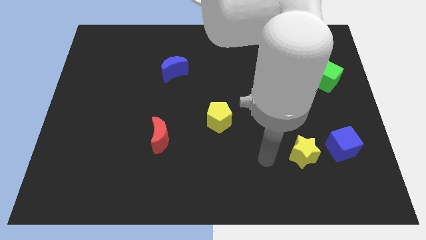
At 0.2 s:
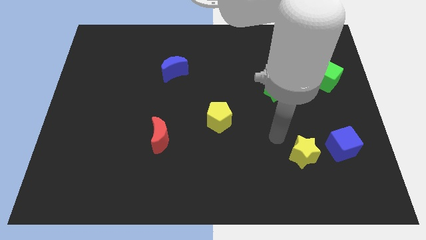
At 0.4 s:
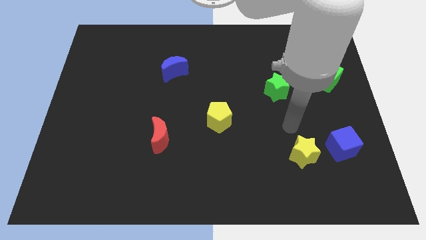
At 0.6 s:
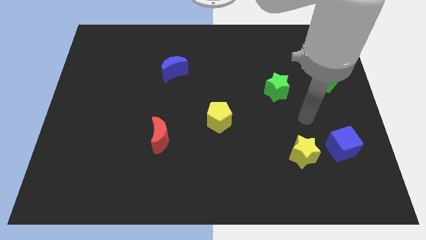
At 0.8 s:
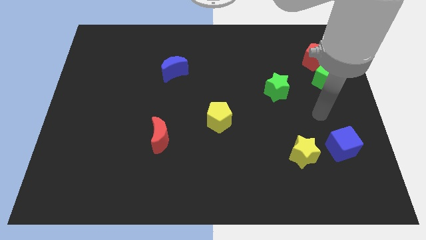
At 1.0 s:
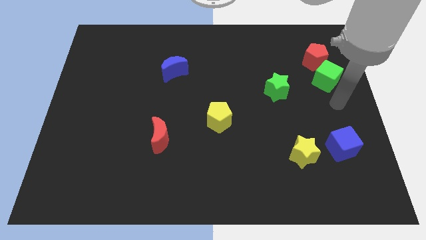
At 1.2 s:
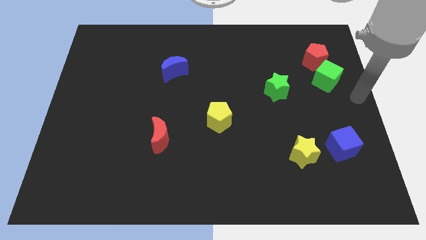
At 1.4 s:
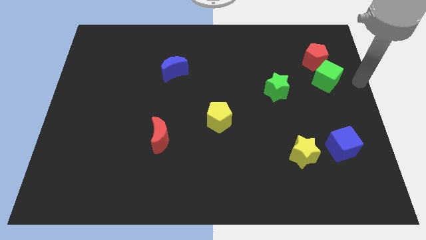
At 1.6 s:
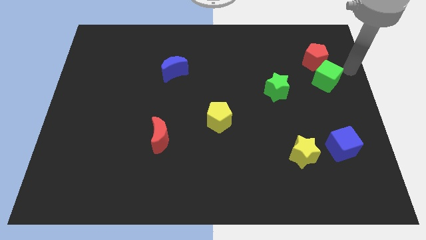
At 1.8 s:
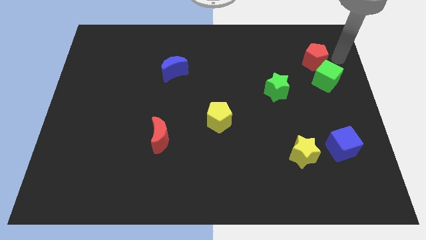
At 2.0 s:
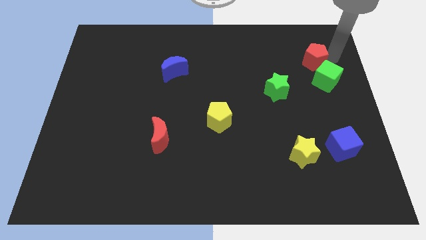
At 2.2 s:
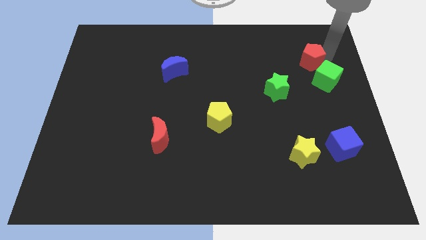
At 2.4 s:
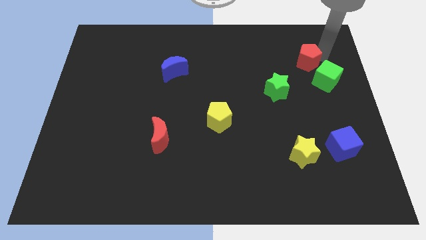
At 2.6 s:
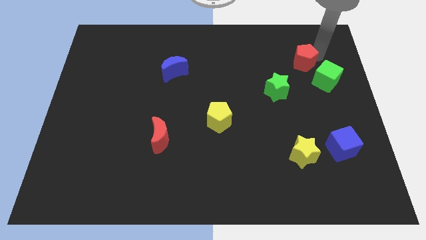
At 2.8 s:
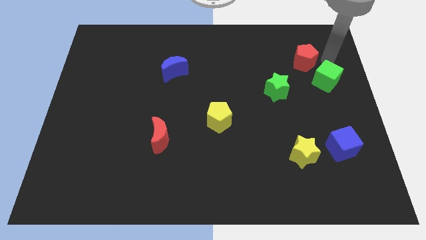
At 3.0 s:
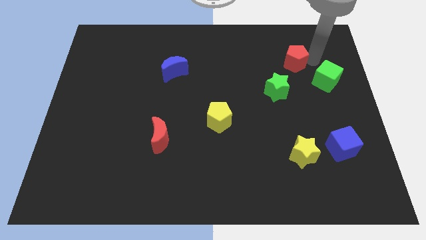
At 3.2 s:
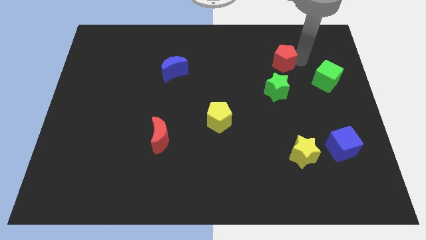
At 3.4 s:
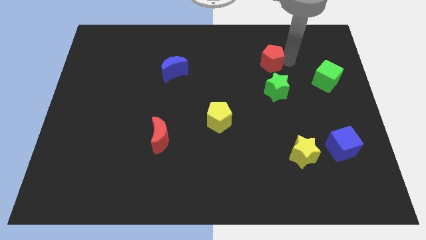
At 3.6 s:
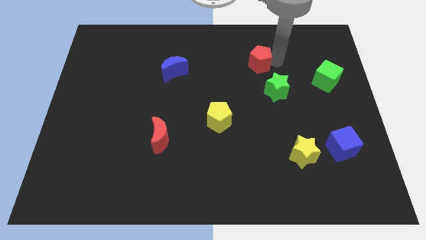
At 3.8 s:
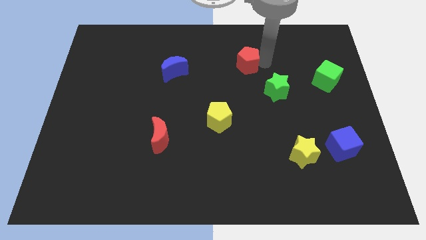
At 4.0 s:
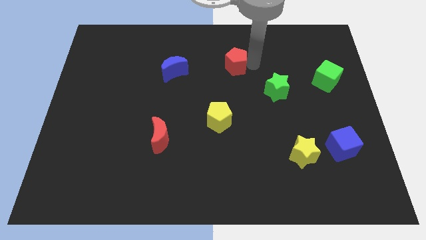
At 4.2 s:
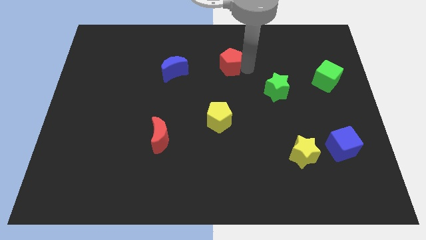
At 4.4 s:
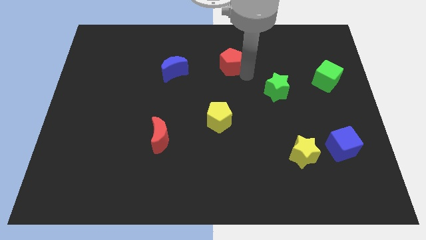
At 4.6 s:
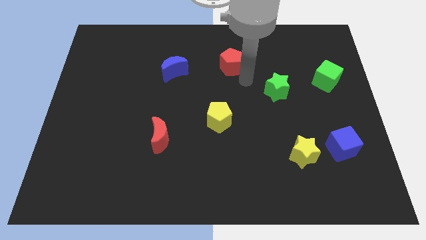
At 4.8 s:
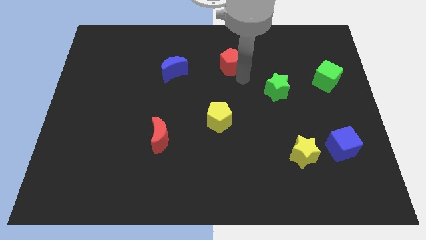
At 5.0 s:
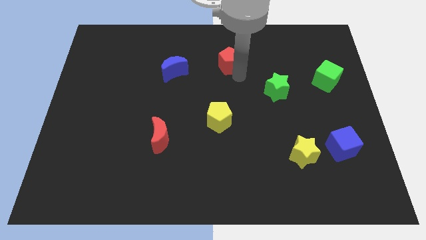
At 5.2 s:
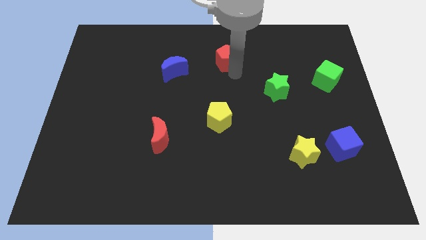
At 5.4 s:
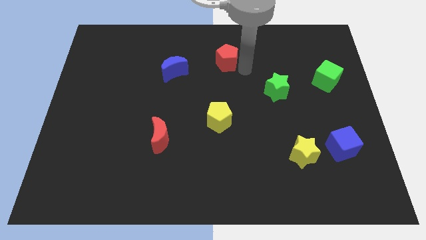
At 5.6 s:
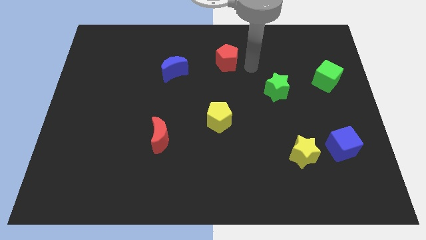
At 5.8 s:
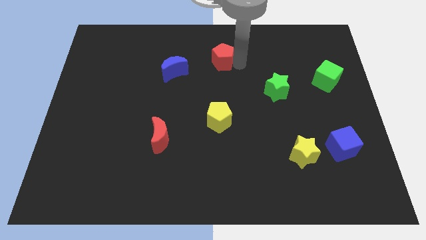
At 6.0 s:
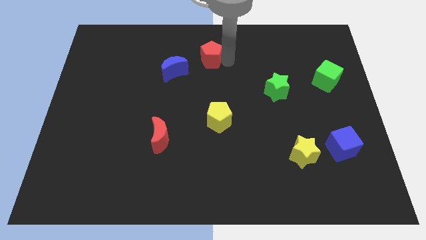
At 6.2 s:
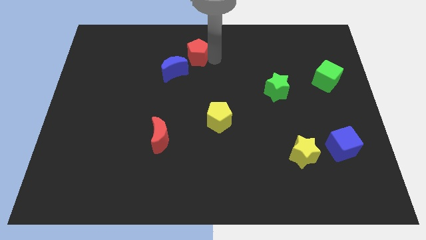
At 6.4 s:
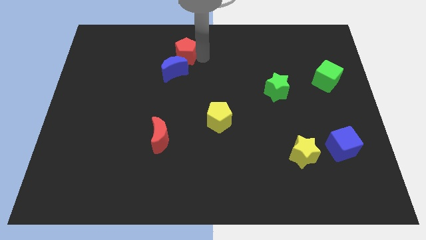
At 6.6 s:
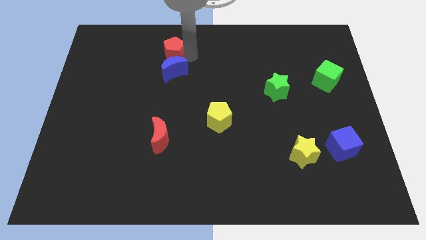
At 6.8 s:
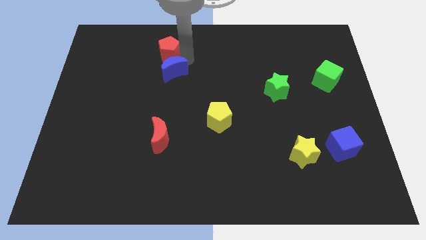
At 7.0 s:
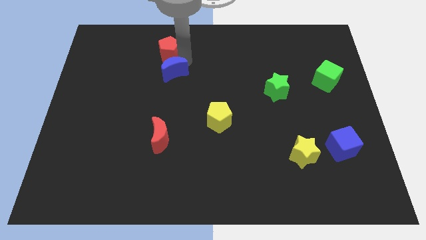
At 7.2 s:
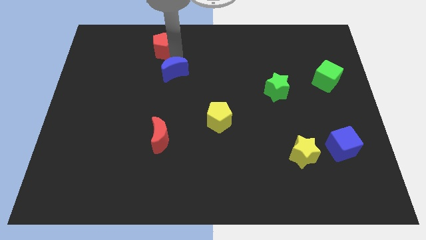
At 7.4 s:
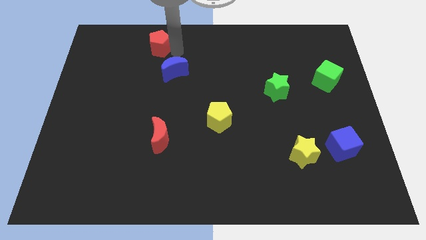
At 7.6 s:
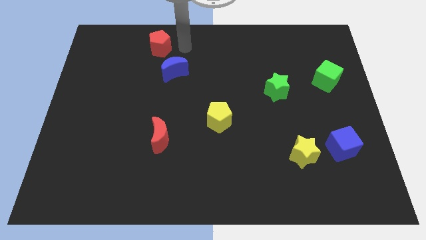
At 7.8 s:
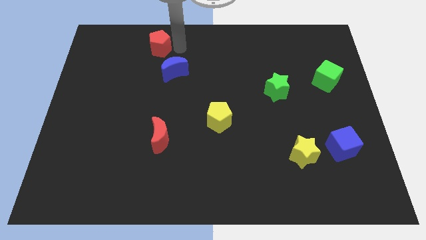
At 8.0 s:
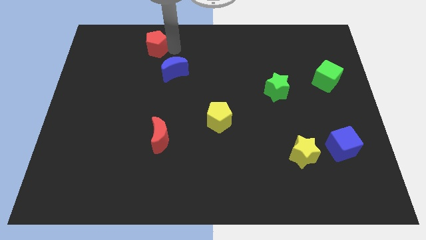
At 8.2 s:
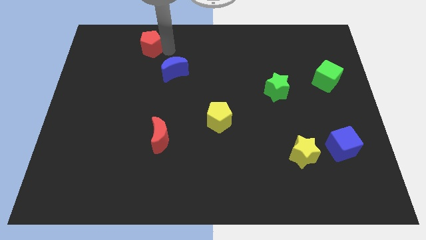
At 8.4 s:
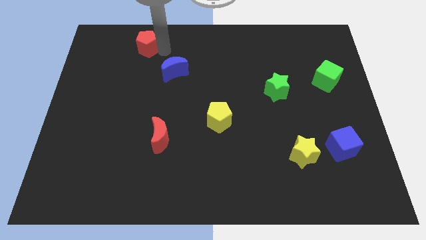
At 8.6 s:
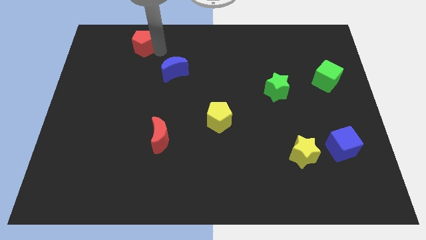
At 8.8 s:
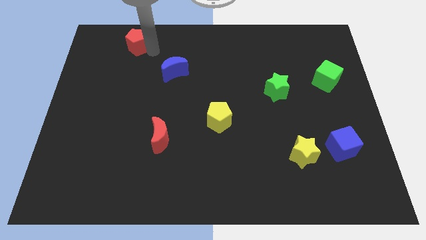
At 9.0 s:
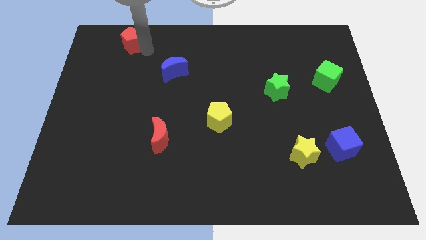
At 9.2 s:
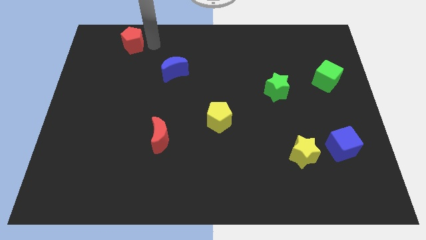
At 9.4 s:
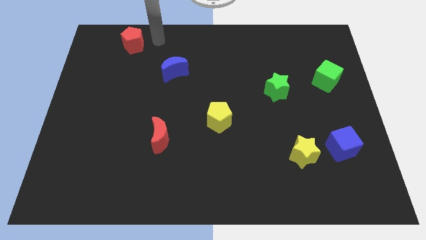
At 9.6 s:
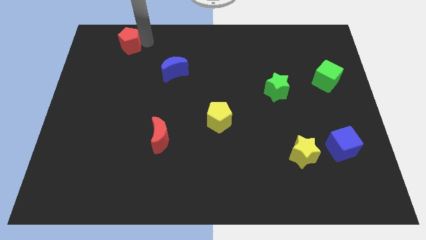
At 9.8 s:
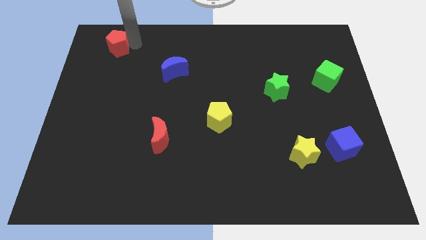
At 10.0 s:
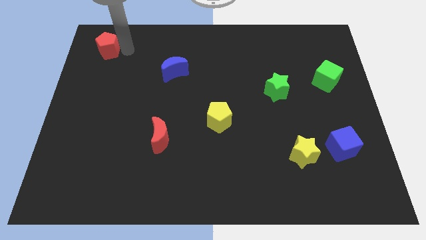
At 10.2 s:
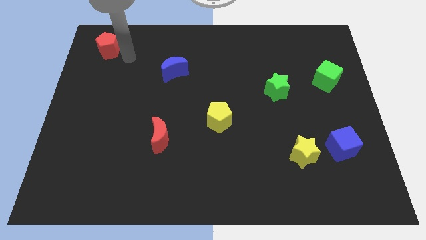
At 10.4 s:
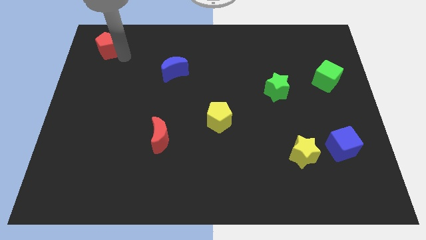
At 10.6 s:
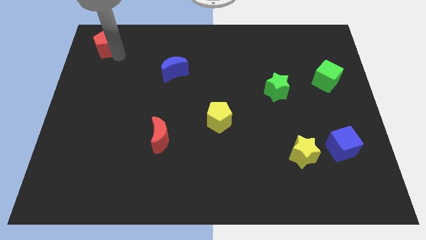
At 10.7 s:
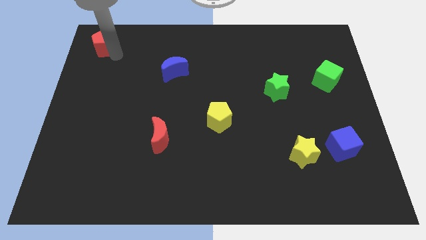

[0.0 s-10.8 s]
put the red pentagon to the top left of the board

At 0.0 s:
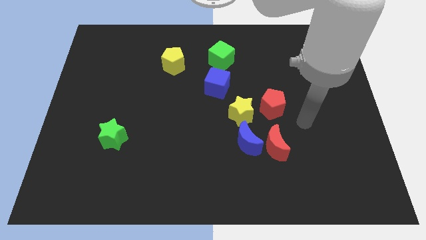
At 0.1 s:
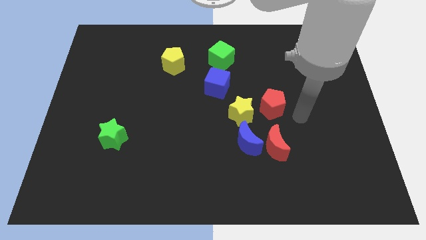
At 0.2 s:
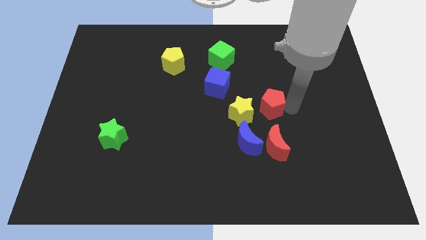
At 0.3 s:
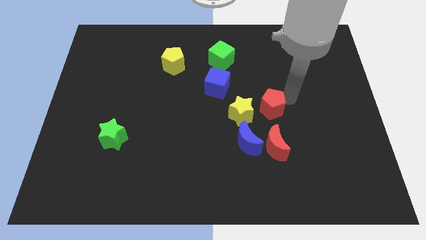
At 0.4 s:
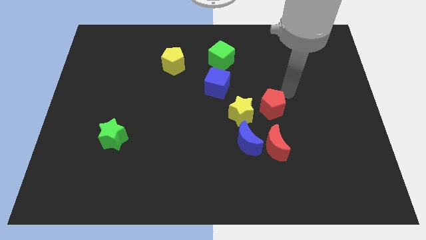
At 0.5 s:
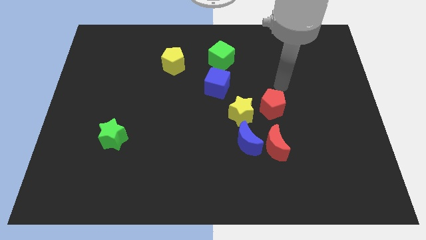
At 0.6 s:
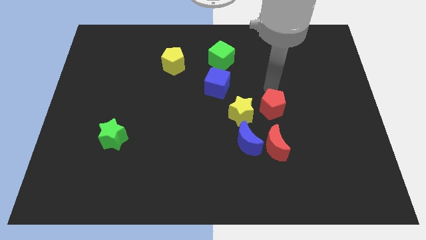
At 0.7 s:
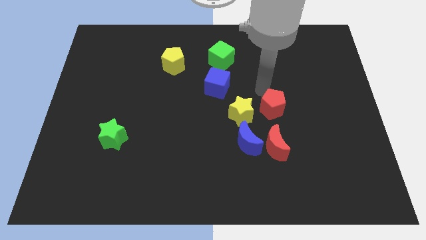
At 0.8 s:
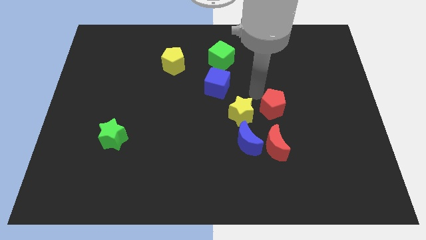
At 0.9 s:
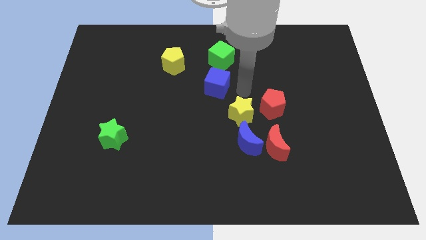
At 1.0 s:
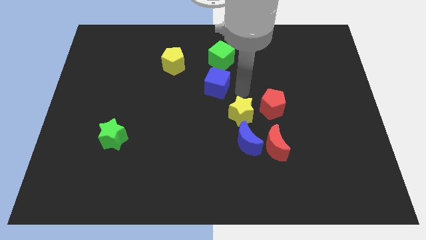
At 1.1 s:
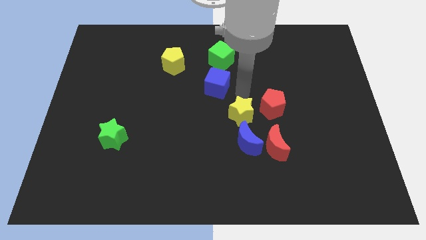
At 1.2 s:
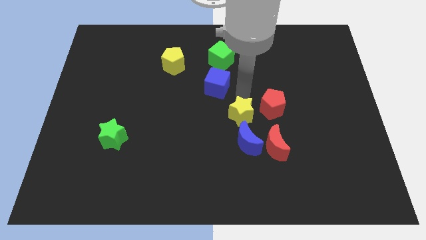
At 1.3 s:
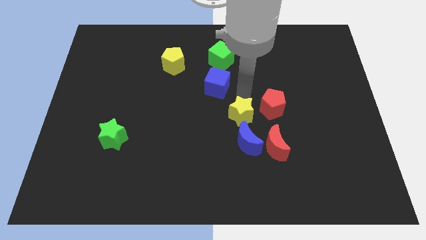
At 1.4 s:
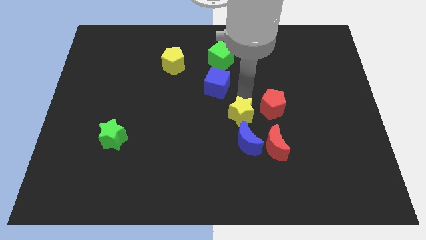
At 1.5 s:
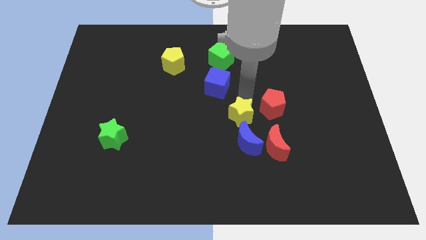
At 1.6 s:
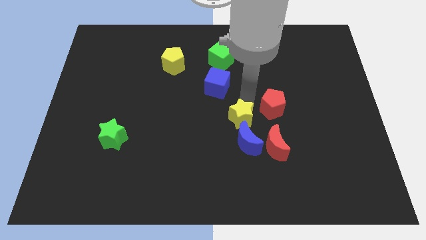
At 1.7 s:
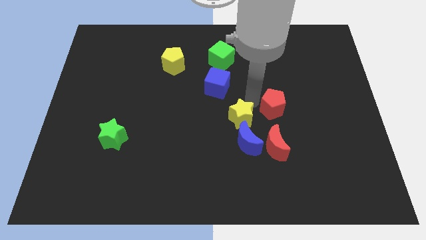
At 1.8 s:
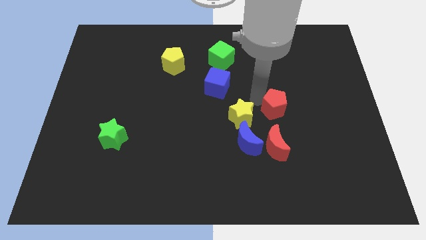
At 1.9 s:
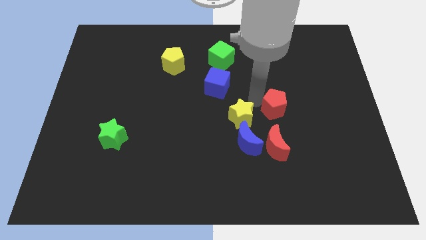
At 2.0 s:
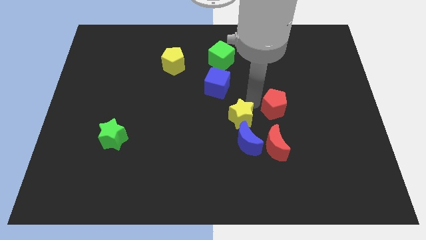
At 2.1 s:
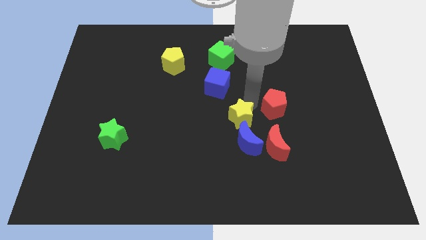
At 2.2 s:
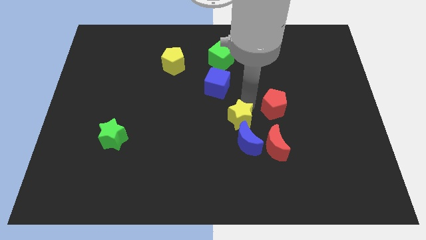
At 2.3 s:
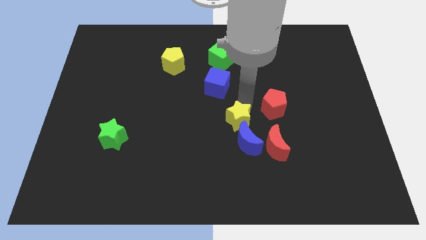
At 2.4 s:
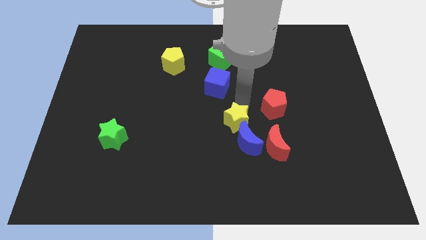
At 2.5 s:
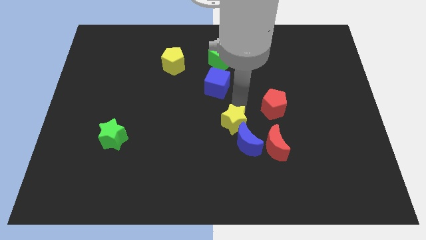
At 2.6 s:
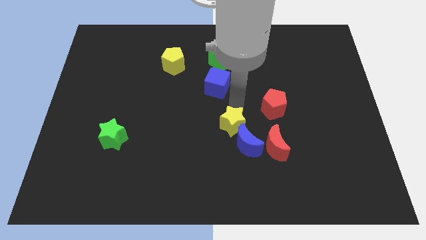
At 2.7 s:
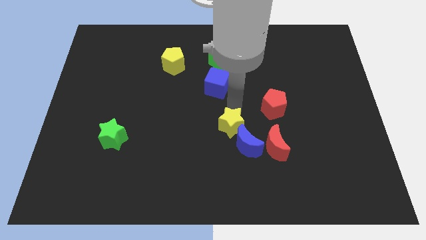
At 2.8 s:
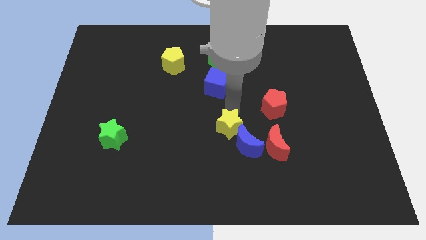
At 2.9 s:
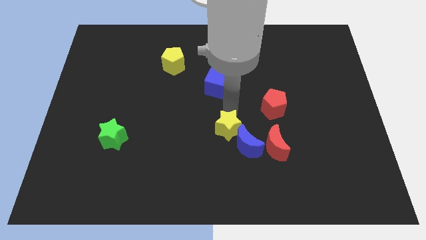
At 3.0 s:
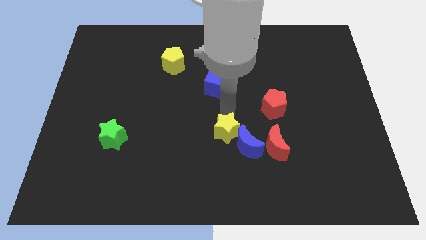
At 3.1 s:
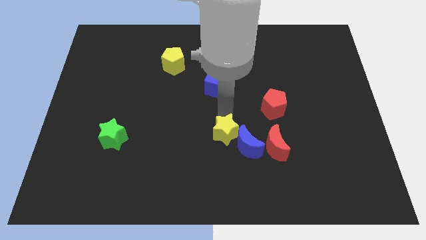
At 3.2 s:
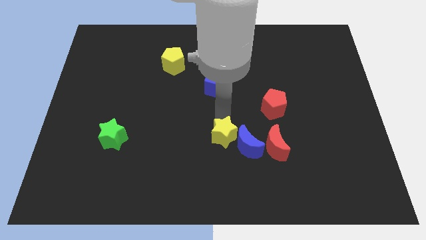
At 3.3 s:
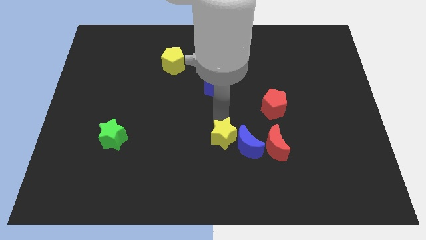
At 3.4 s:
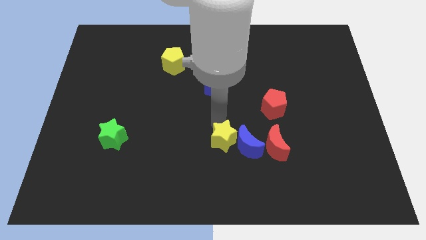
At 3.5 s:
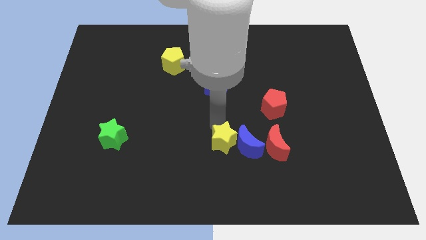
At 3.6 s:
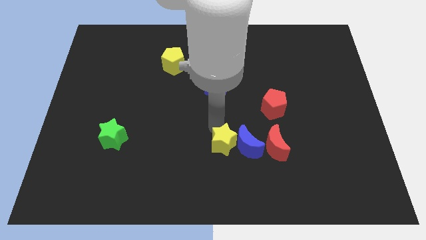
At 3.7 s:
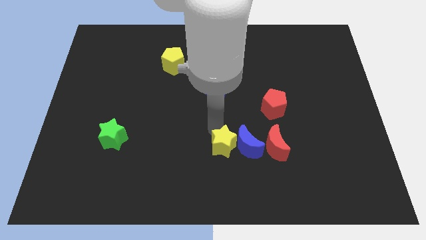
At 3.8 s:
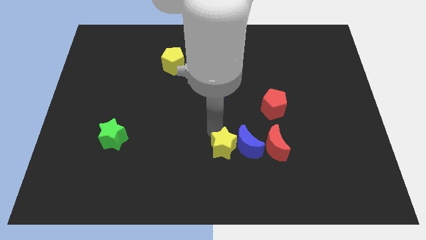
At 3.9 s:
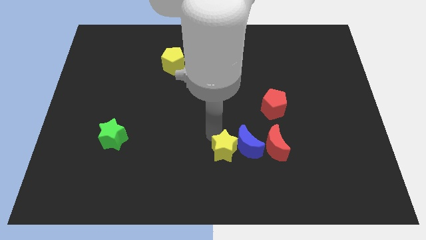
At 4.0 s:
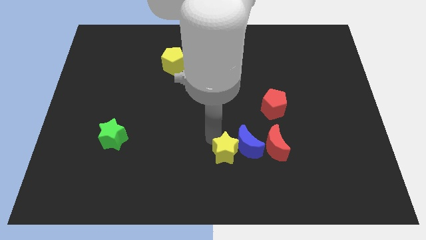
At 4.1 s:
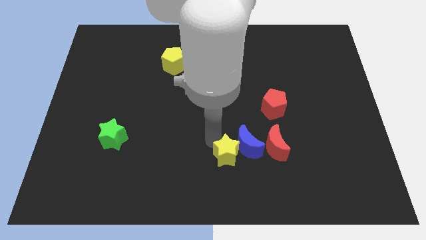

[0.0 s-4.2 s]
move the yellow star to the bottom
